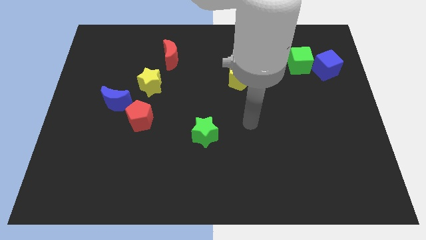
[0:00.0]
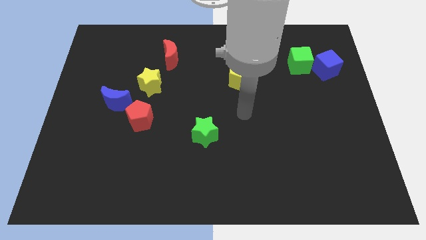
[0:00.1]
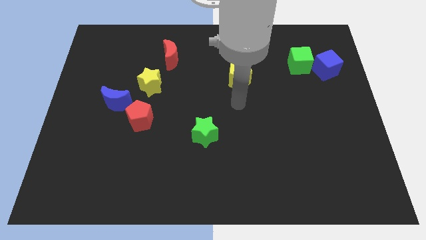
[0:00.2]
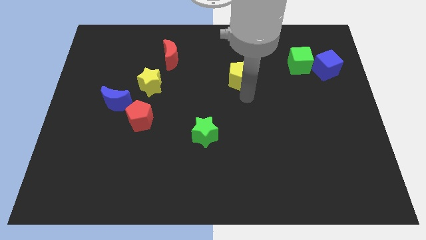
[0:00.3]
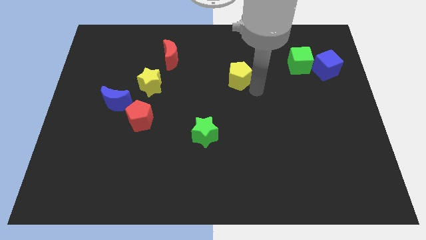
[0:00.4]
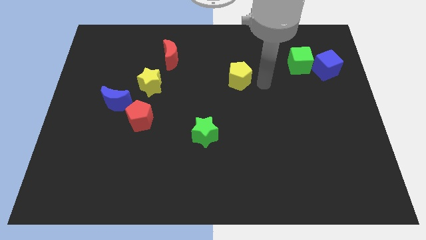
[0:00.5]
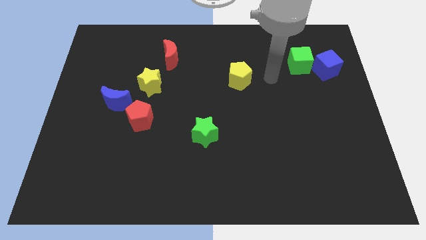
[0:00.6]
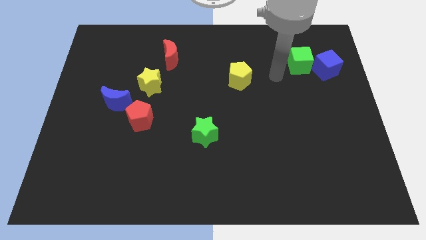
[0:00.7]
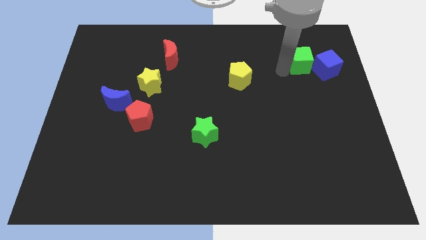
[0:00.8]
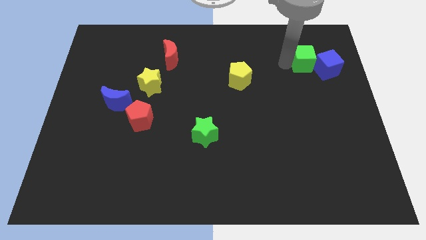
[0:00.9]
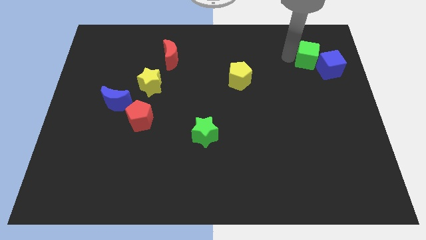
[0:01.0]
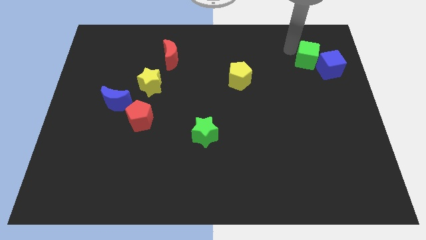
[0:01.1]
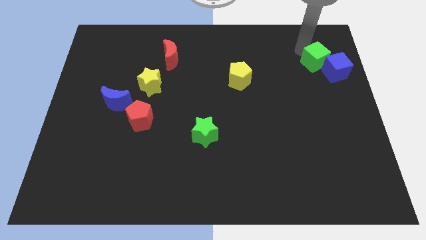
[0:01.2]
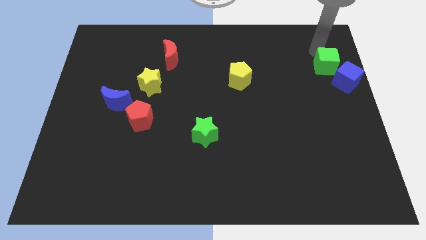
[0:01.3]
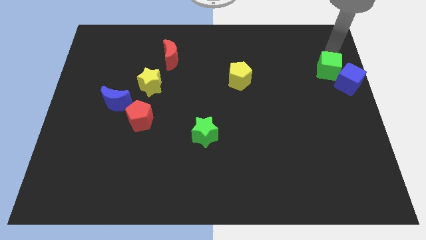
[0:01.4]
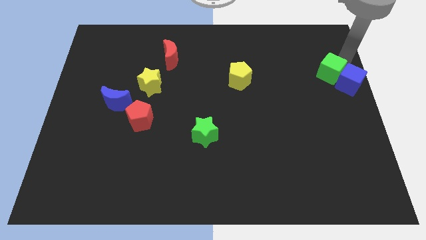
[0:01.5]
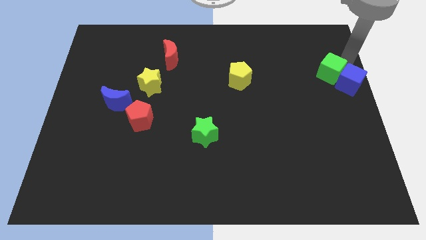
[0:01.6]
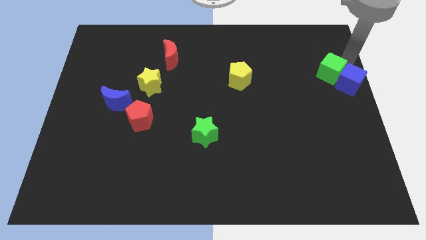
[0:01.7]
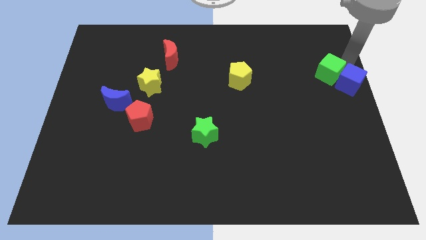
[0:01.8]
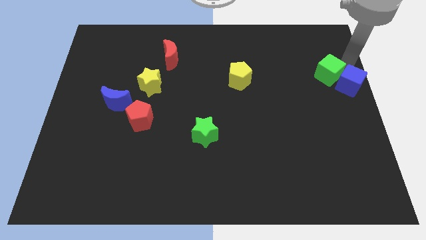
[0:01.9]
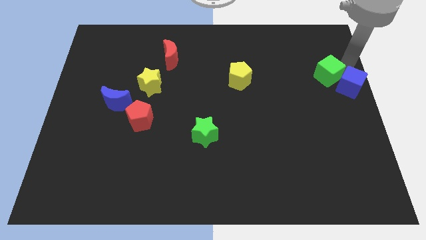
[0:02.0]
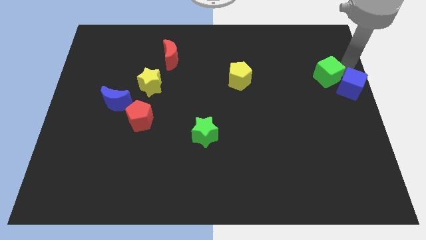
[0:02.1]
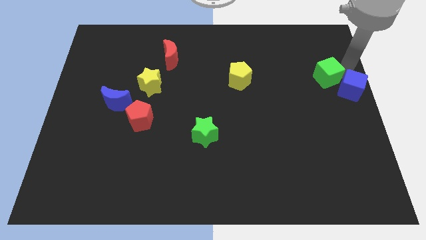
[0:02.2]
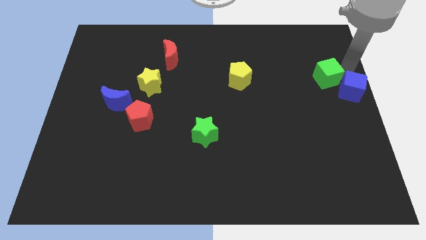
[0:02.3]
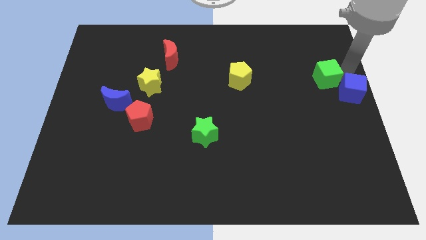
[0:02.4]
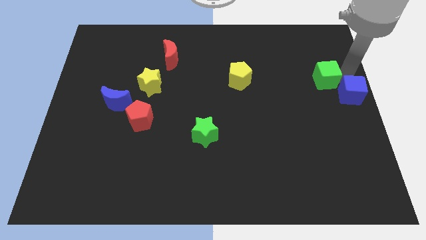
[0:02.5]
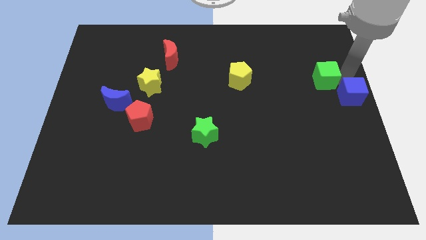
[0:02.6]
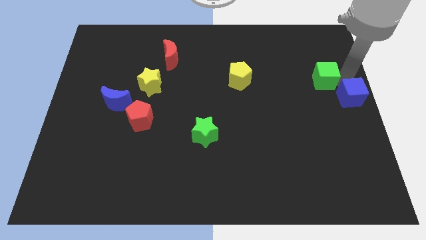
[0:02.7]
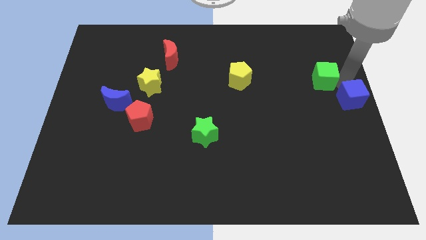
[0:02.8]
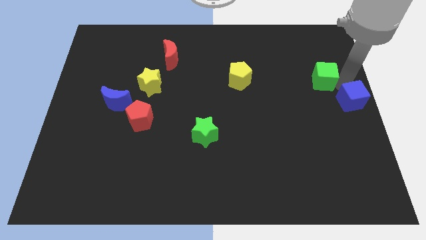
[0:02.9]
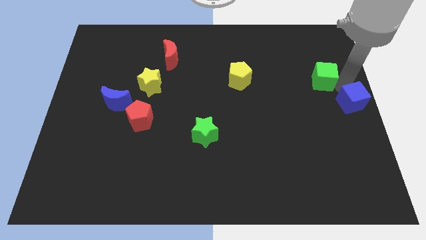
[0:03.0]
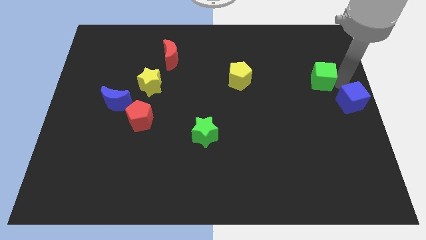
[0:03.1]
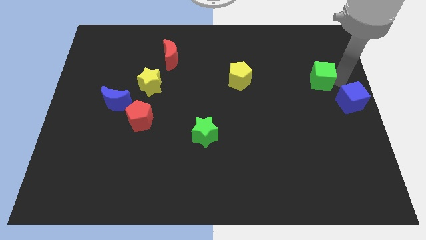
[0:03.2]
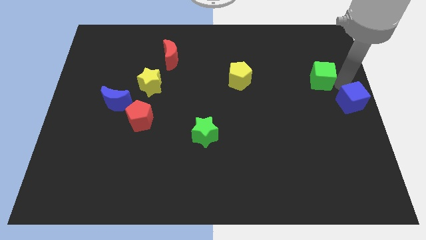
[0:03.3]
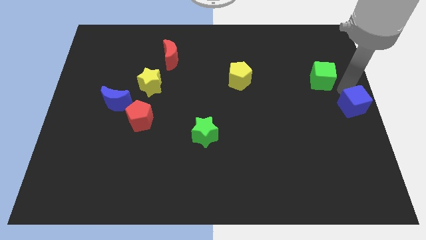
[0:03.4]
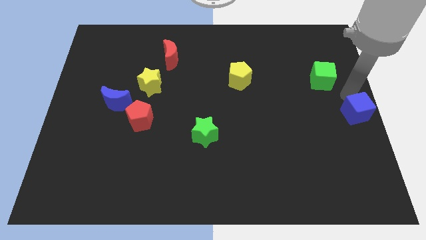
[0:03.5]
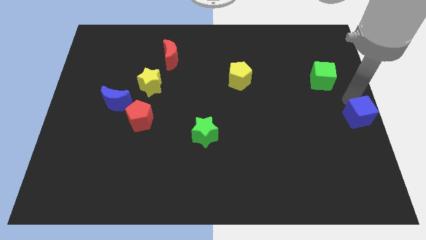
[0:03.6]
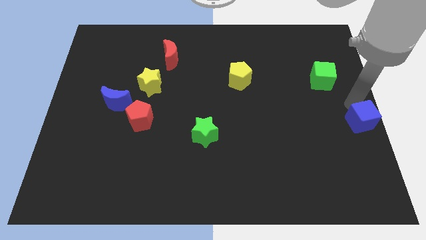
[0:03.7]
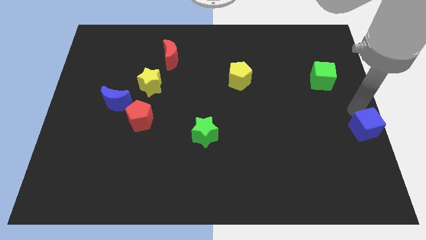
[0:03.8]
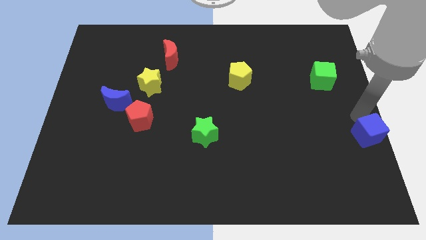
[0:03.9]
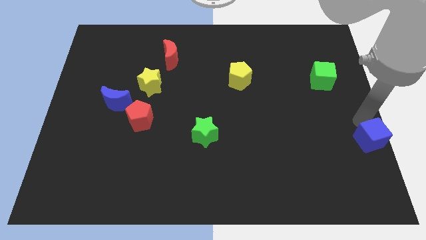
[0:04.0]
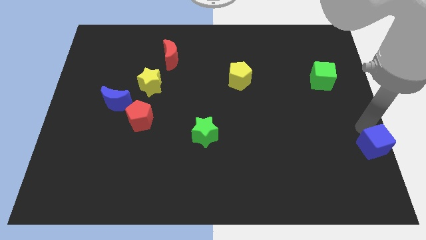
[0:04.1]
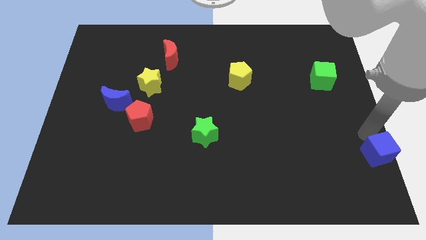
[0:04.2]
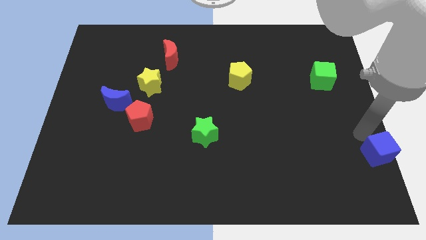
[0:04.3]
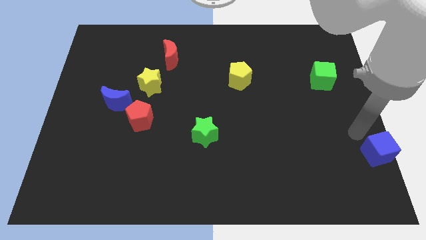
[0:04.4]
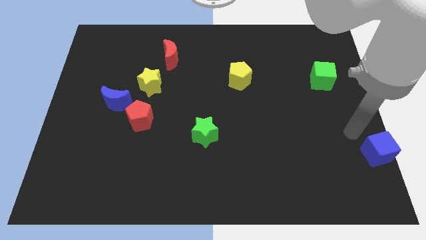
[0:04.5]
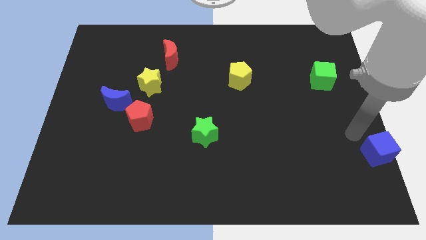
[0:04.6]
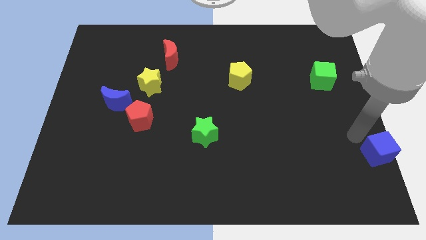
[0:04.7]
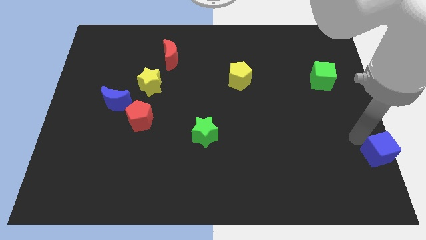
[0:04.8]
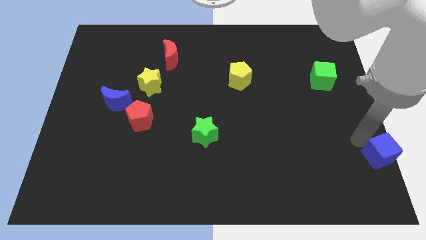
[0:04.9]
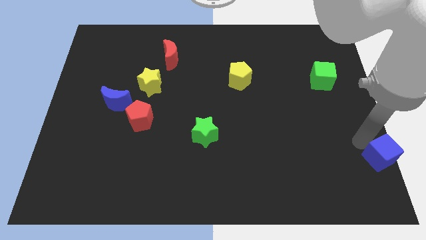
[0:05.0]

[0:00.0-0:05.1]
slide the blue cube to the bottom right
